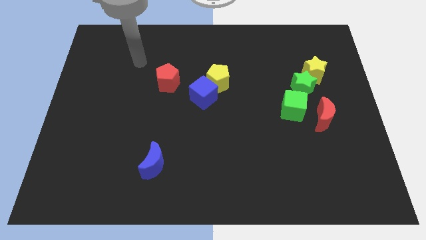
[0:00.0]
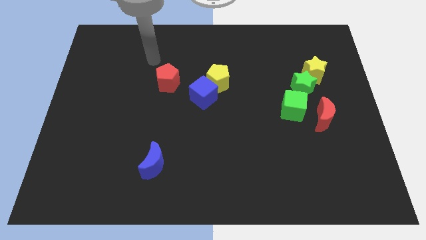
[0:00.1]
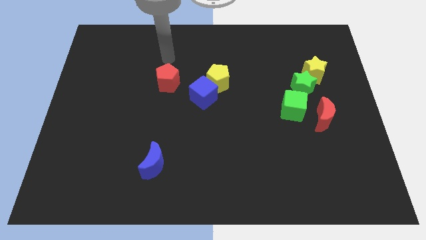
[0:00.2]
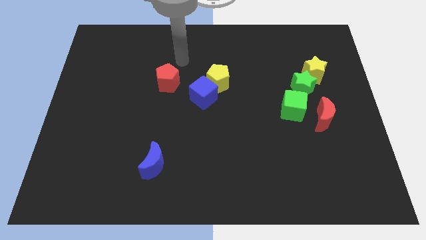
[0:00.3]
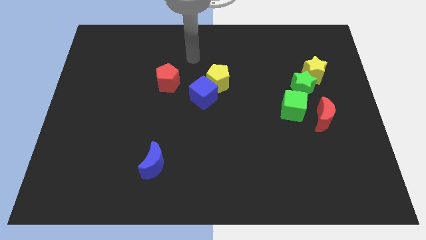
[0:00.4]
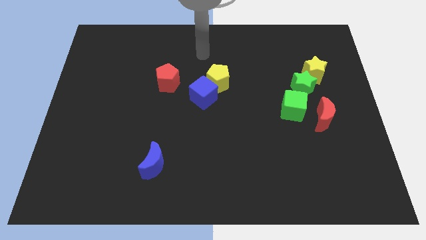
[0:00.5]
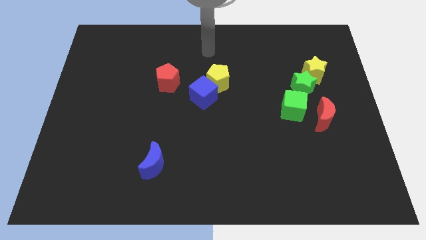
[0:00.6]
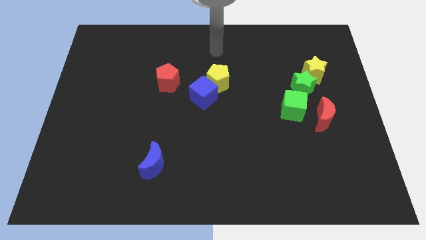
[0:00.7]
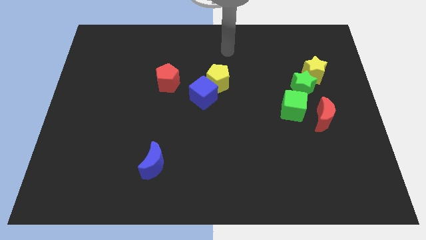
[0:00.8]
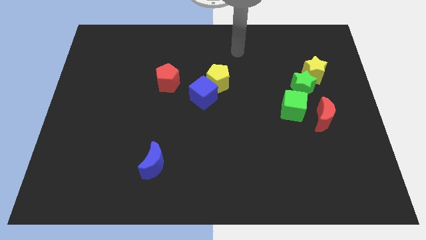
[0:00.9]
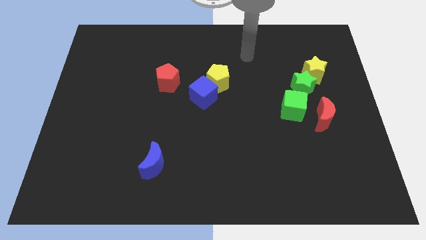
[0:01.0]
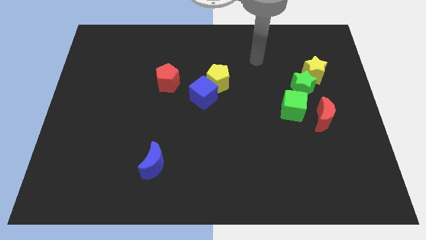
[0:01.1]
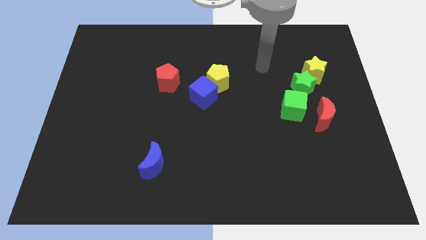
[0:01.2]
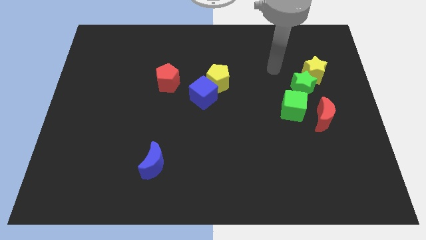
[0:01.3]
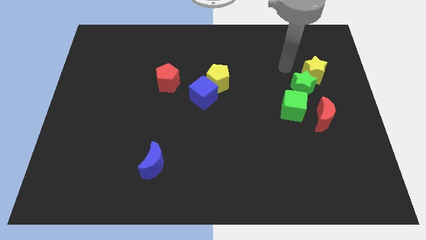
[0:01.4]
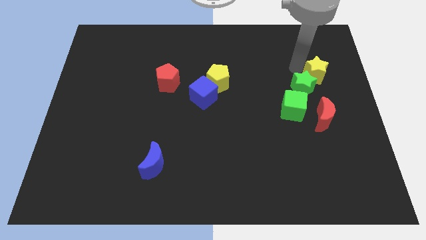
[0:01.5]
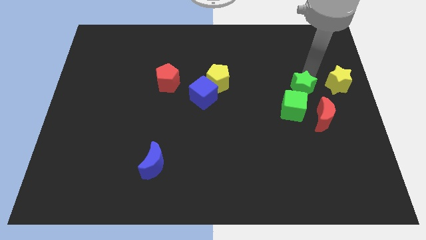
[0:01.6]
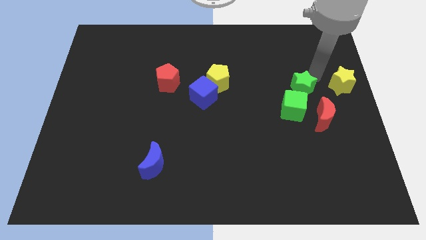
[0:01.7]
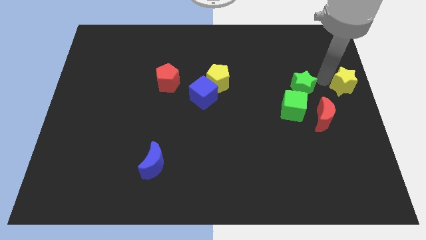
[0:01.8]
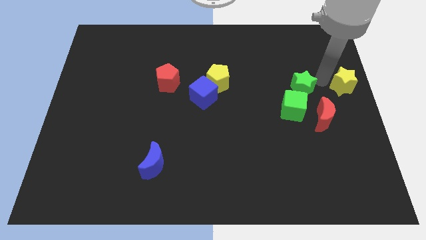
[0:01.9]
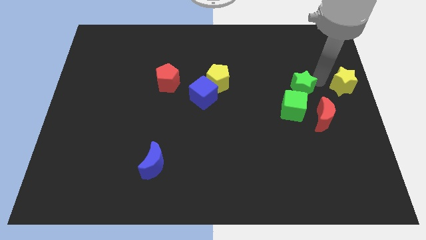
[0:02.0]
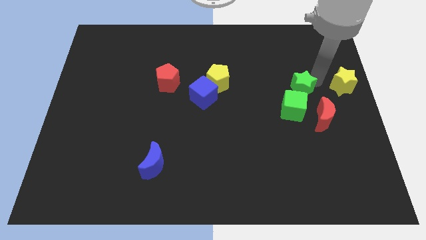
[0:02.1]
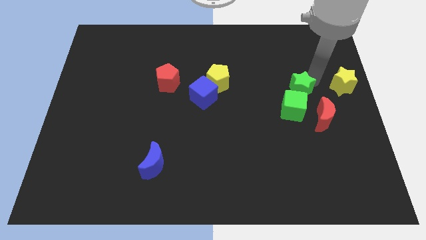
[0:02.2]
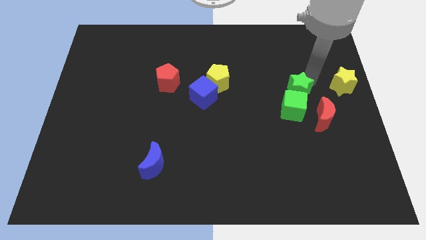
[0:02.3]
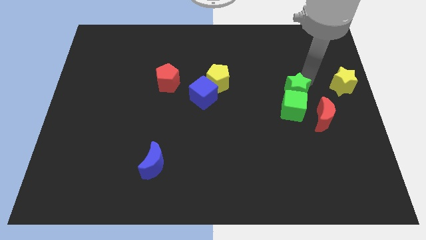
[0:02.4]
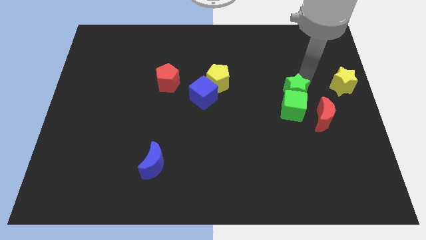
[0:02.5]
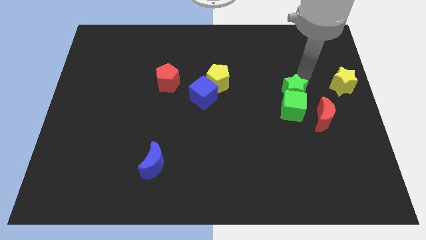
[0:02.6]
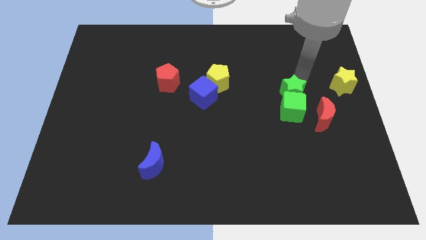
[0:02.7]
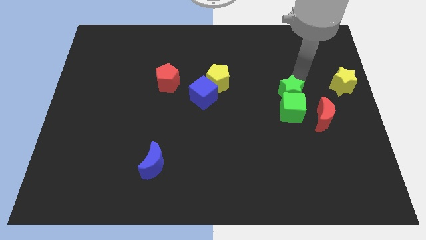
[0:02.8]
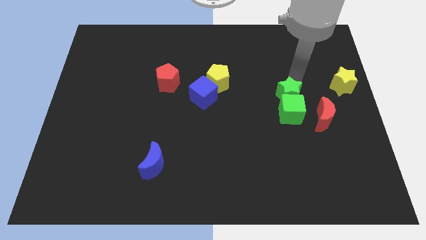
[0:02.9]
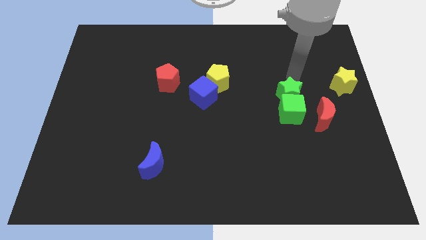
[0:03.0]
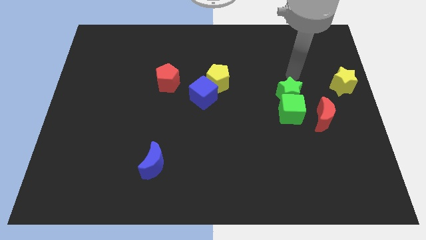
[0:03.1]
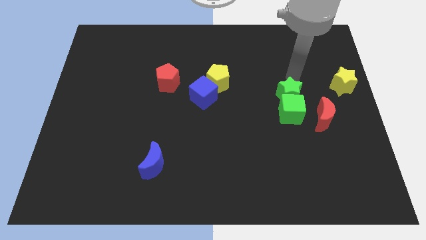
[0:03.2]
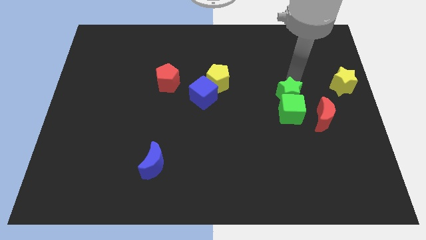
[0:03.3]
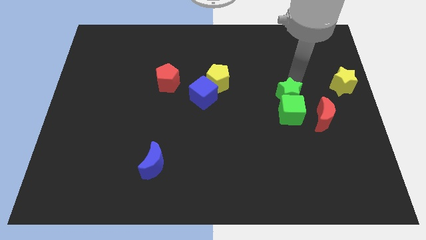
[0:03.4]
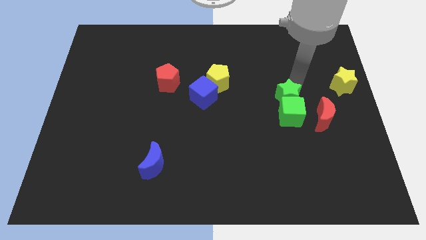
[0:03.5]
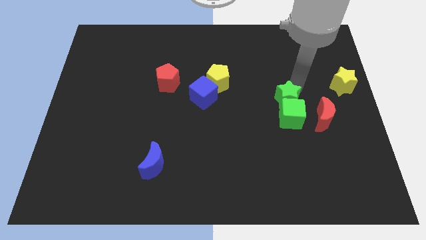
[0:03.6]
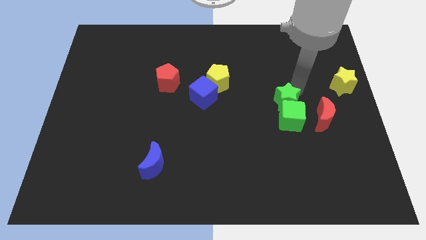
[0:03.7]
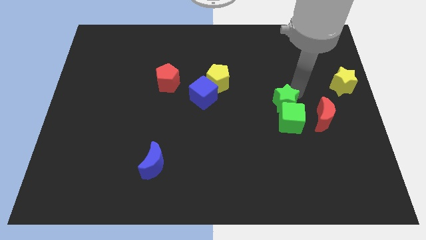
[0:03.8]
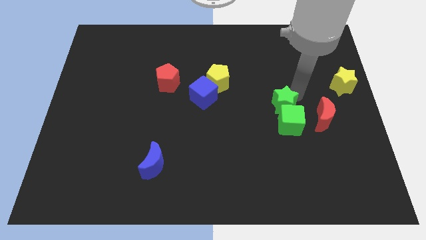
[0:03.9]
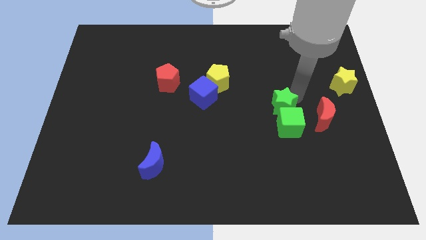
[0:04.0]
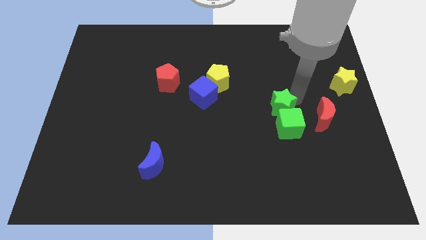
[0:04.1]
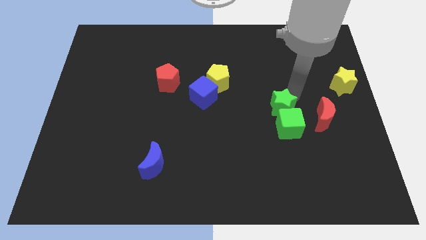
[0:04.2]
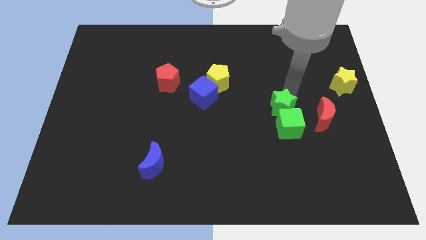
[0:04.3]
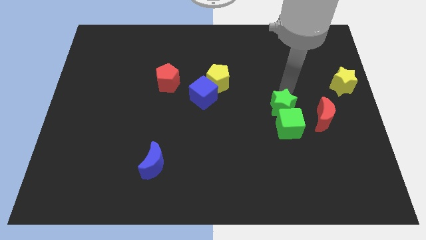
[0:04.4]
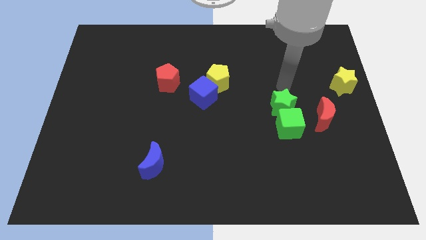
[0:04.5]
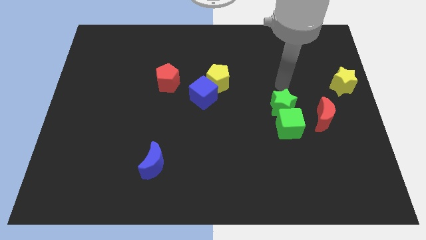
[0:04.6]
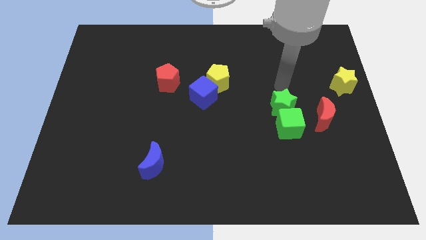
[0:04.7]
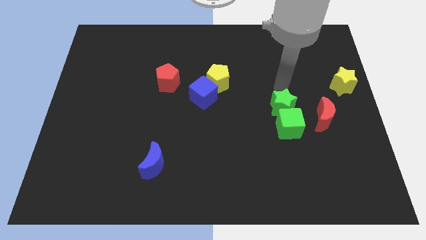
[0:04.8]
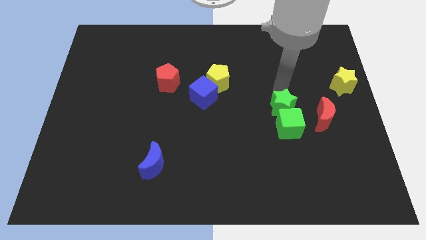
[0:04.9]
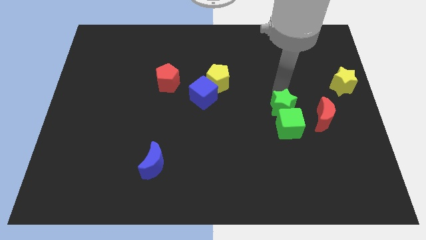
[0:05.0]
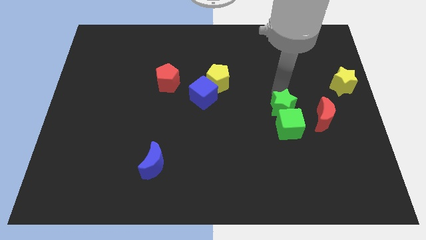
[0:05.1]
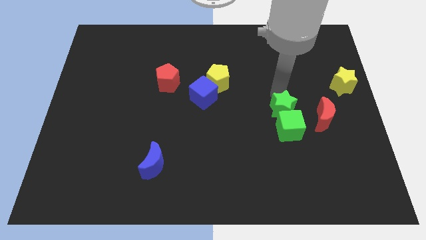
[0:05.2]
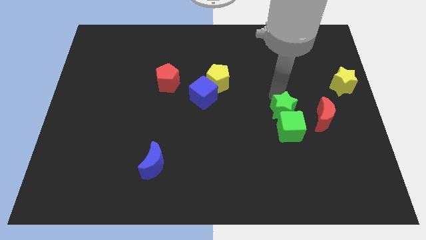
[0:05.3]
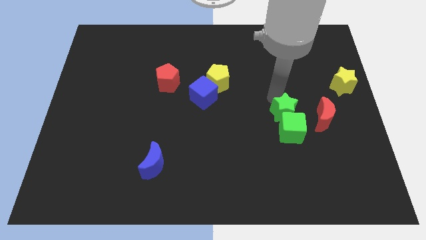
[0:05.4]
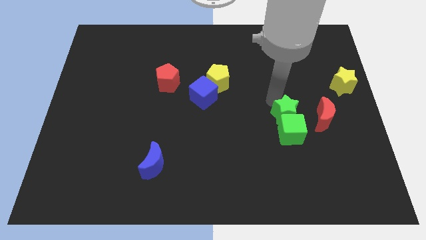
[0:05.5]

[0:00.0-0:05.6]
slightly slide the green star down

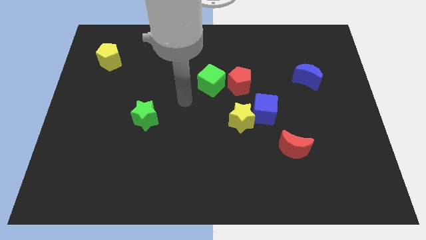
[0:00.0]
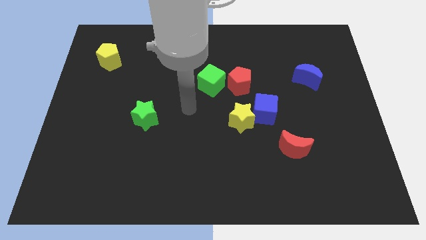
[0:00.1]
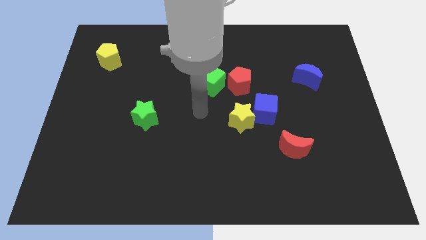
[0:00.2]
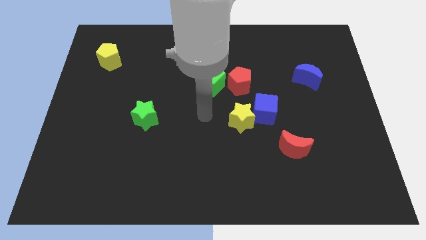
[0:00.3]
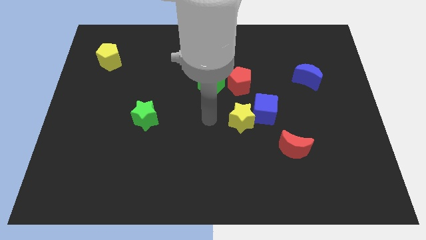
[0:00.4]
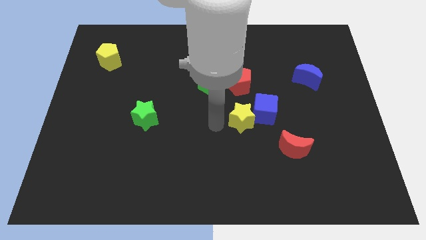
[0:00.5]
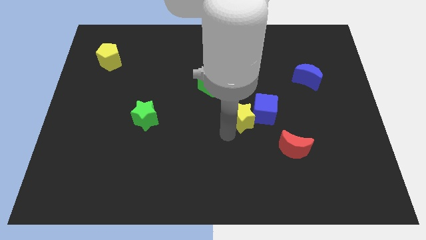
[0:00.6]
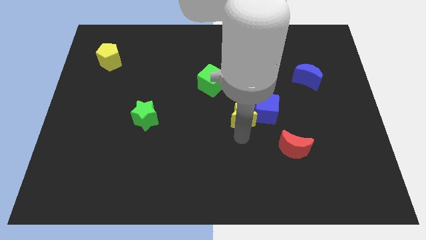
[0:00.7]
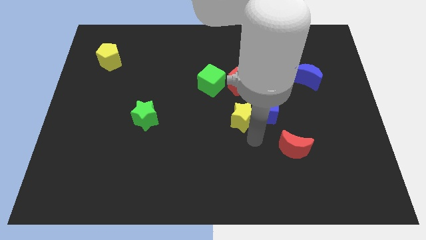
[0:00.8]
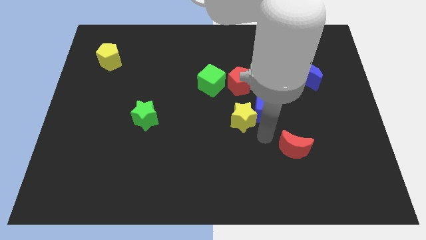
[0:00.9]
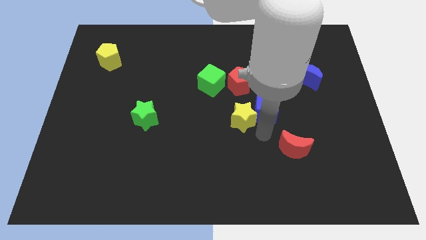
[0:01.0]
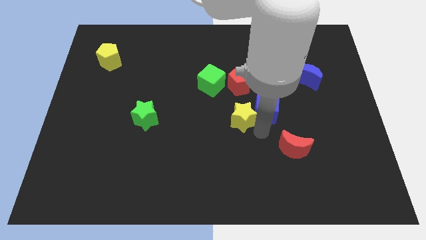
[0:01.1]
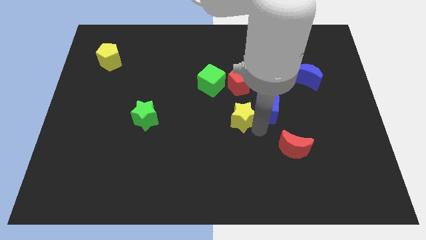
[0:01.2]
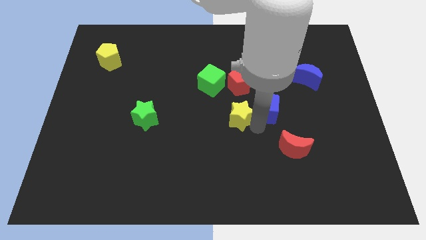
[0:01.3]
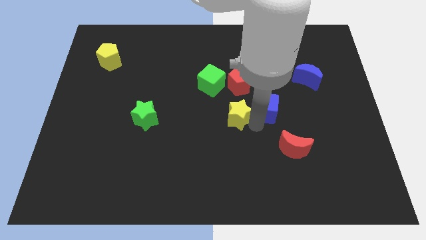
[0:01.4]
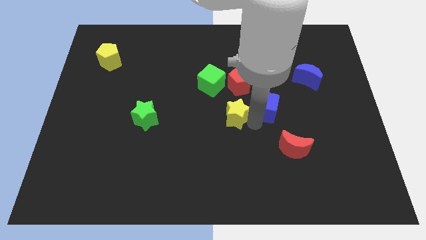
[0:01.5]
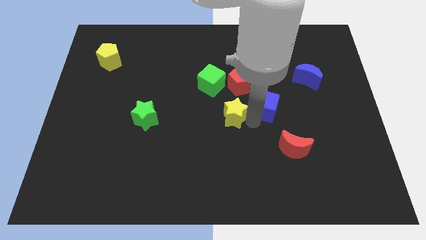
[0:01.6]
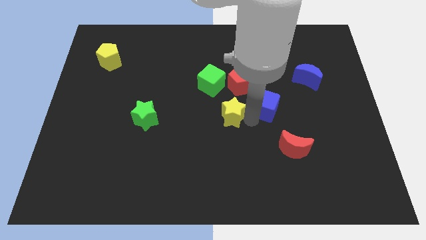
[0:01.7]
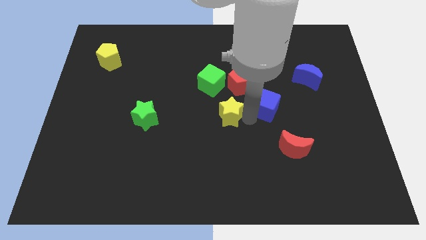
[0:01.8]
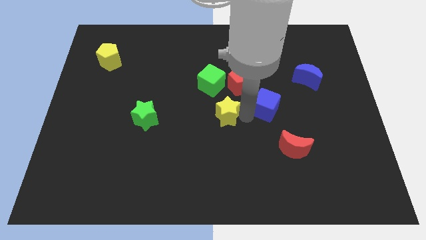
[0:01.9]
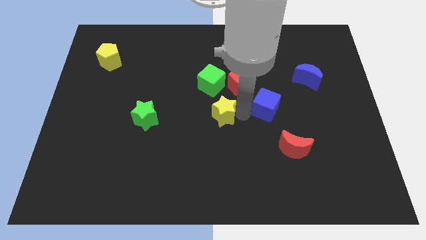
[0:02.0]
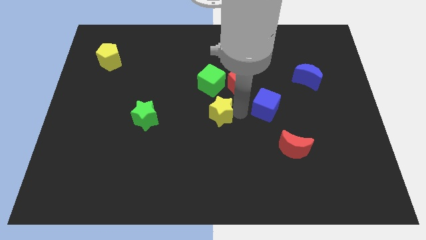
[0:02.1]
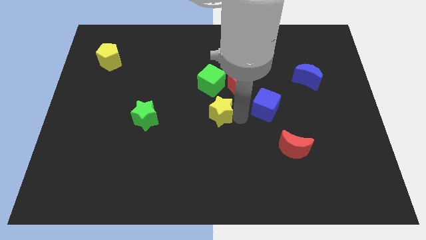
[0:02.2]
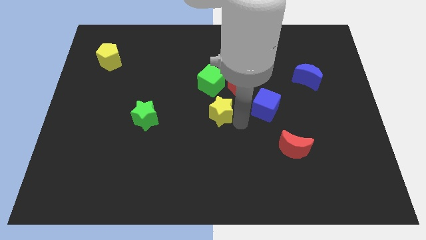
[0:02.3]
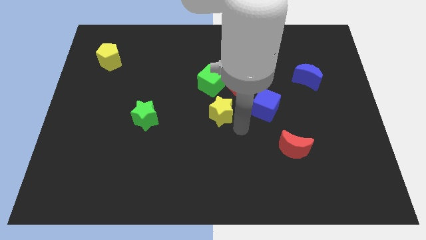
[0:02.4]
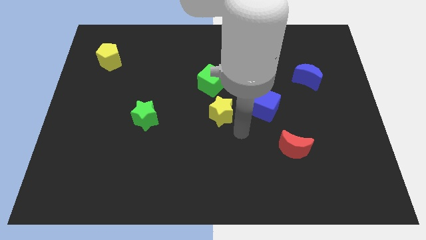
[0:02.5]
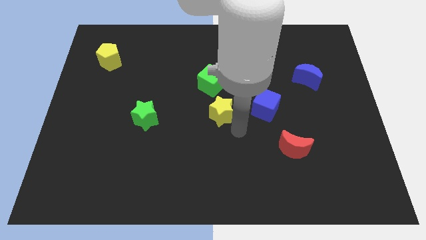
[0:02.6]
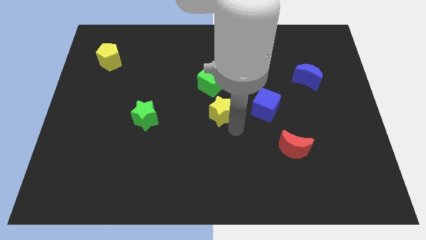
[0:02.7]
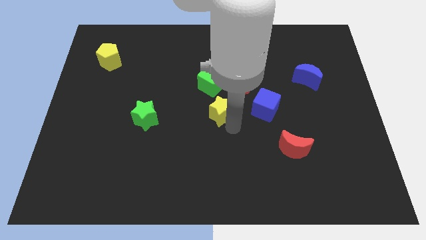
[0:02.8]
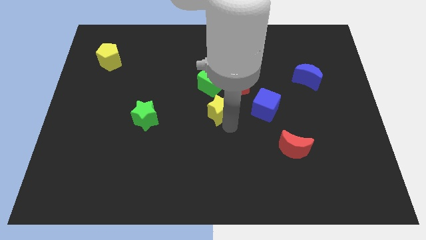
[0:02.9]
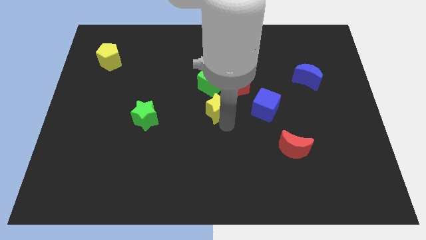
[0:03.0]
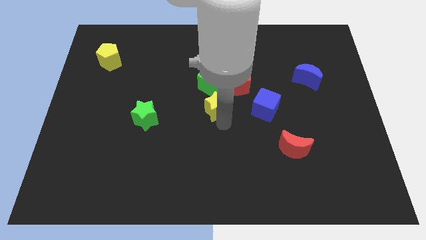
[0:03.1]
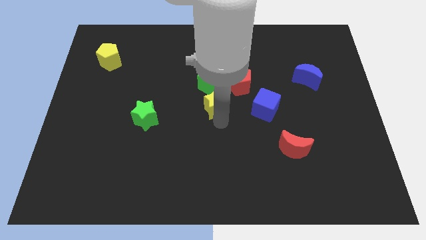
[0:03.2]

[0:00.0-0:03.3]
slide the yellow star a little bit up and then to the left
